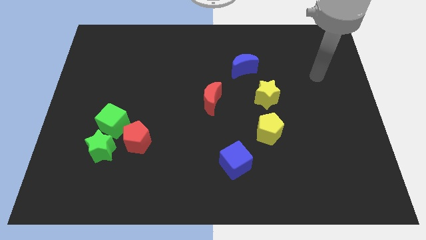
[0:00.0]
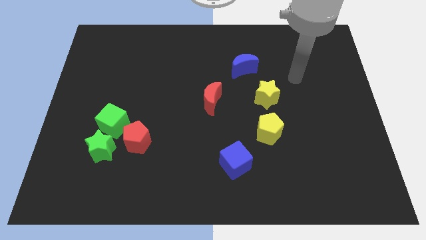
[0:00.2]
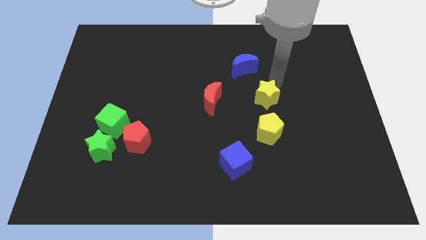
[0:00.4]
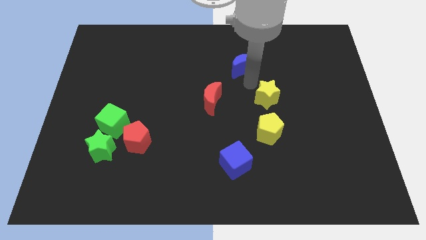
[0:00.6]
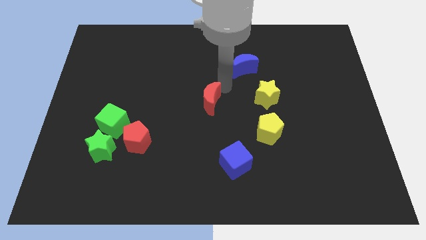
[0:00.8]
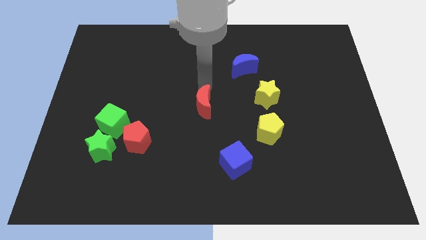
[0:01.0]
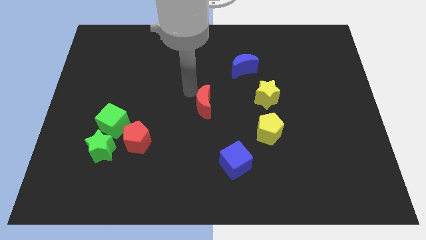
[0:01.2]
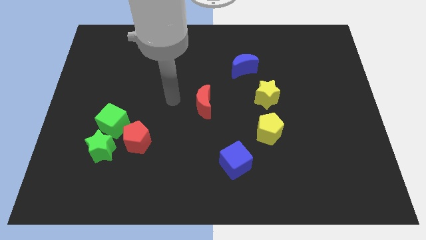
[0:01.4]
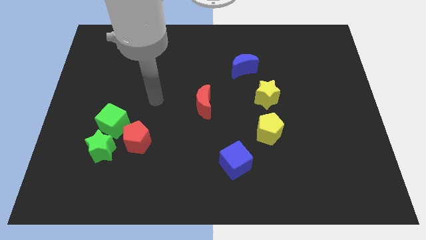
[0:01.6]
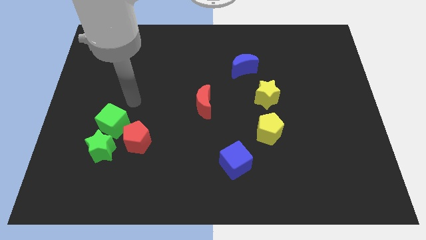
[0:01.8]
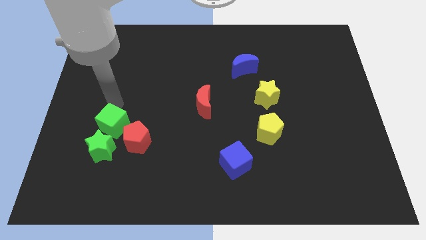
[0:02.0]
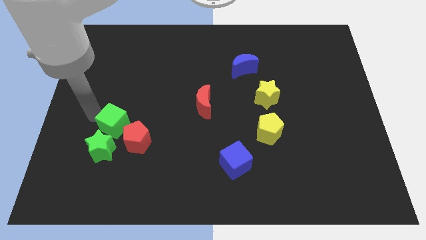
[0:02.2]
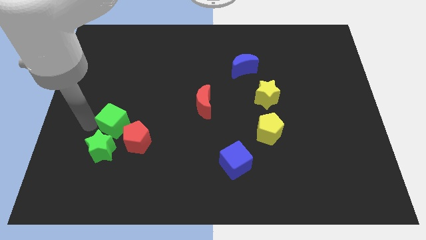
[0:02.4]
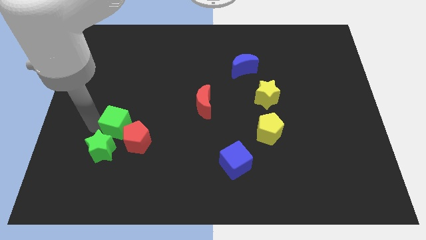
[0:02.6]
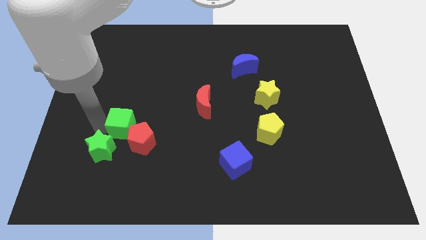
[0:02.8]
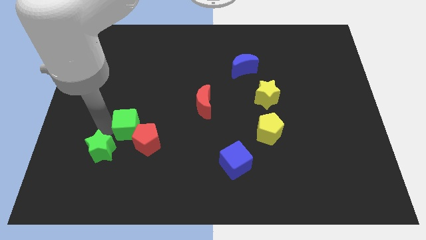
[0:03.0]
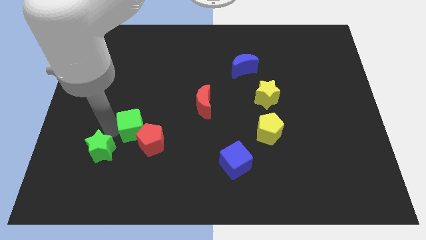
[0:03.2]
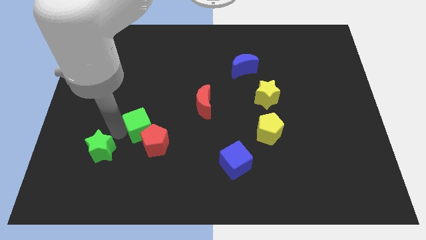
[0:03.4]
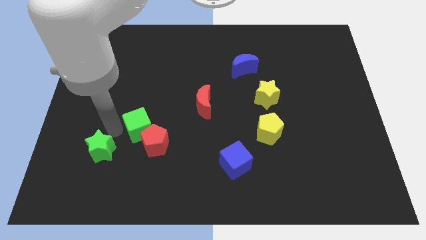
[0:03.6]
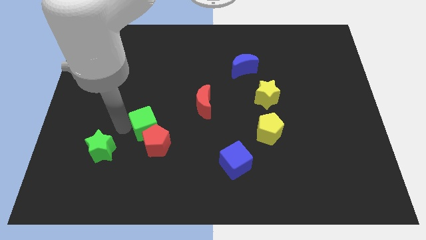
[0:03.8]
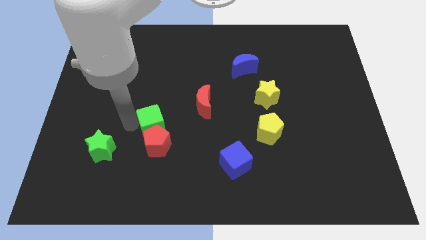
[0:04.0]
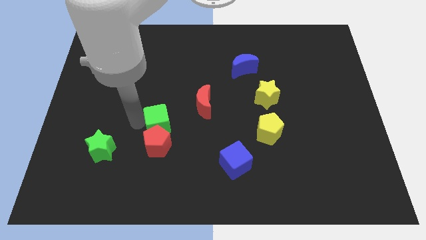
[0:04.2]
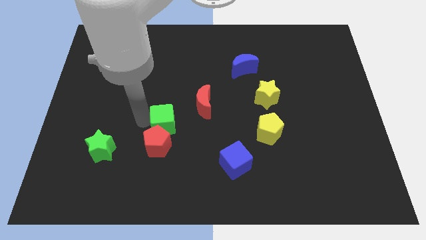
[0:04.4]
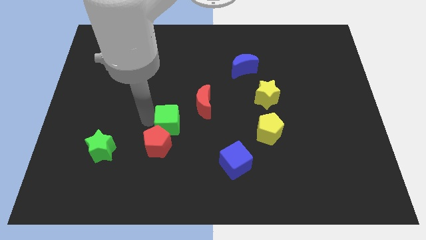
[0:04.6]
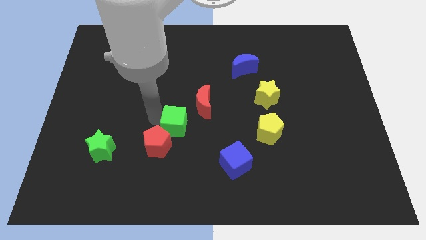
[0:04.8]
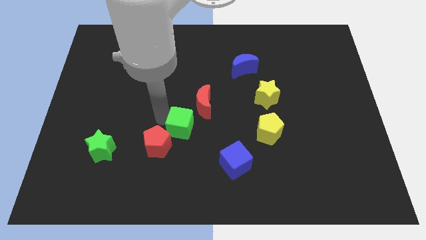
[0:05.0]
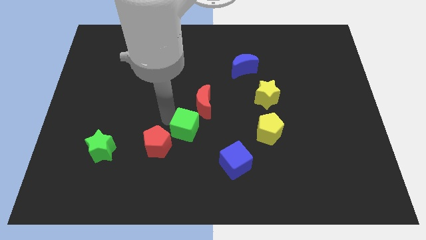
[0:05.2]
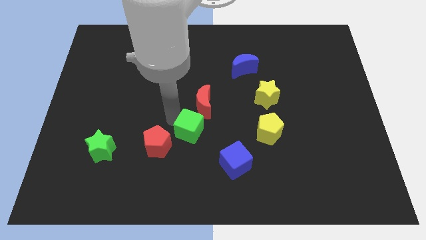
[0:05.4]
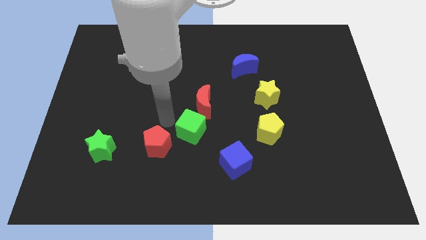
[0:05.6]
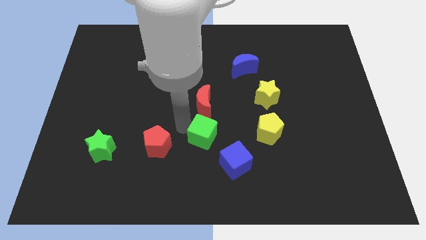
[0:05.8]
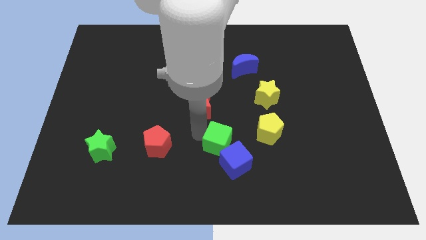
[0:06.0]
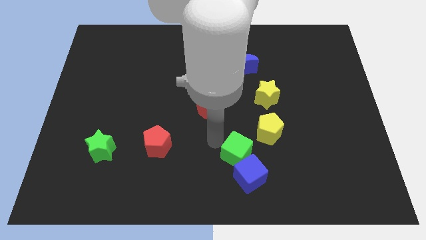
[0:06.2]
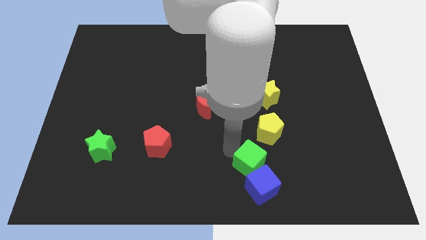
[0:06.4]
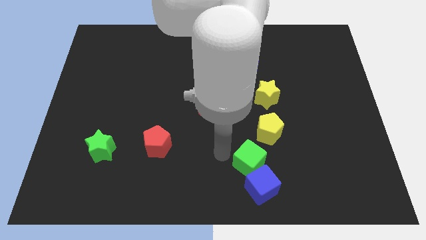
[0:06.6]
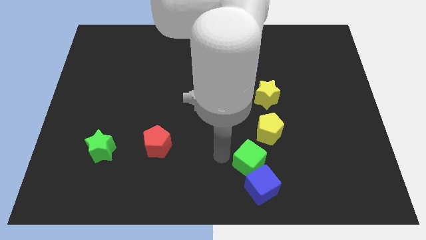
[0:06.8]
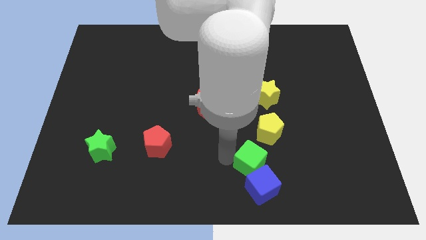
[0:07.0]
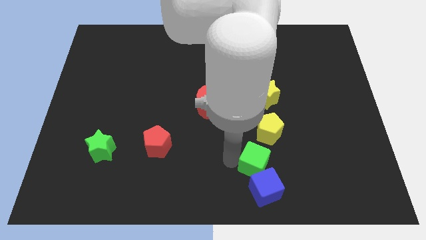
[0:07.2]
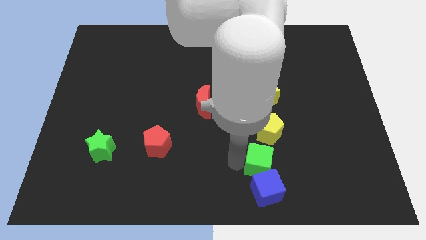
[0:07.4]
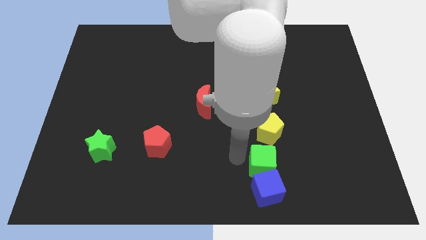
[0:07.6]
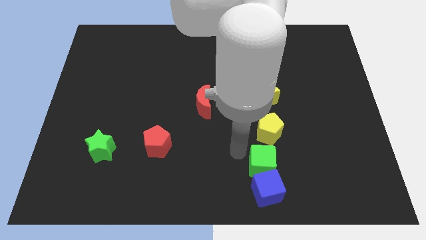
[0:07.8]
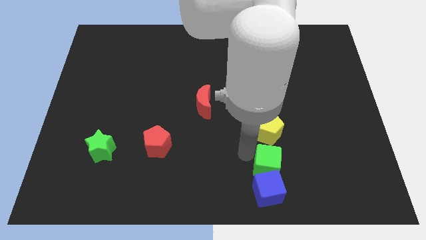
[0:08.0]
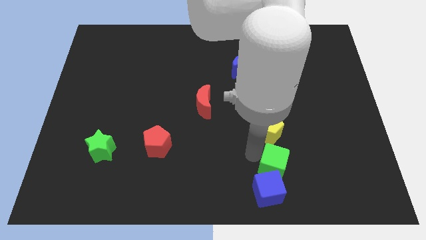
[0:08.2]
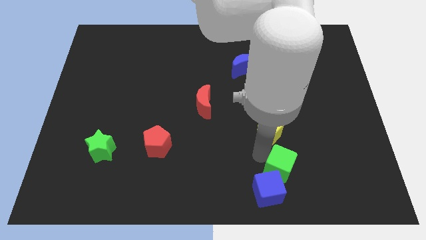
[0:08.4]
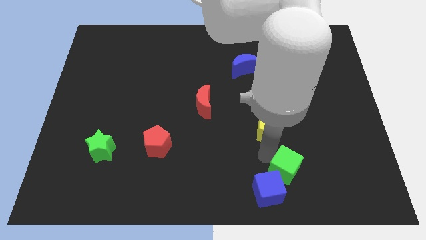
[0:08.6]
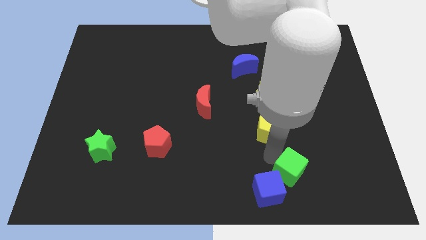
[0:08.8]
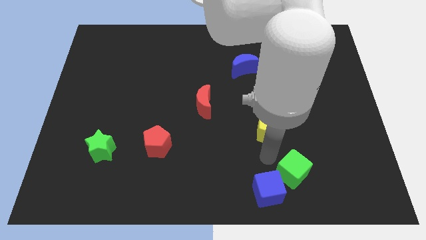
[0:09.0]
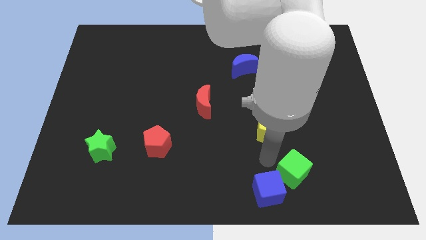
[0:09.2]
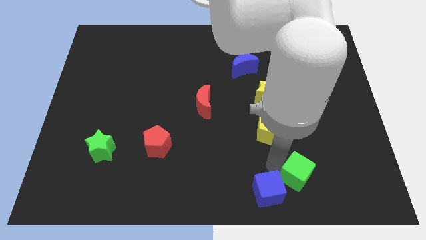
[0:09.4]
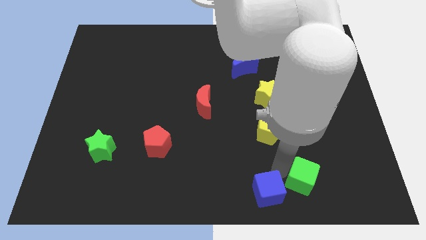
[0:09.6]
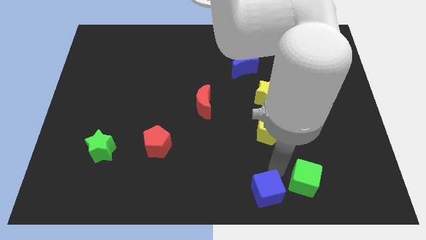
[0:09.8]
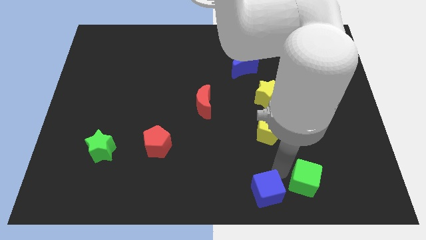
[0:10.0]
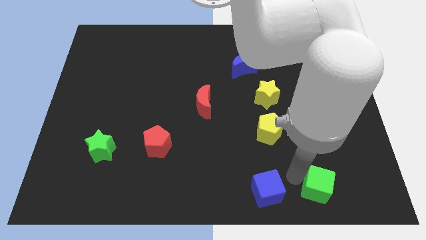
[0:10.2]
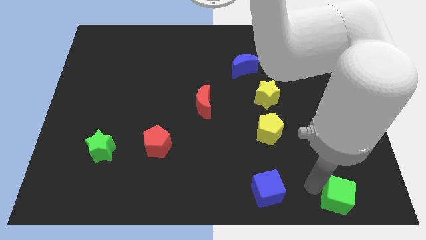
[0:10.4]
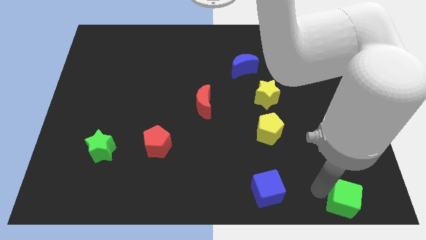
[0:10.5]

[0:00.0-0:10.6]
slide the green cube to the bottom right

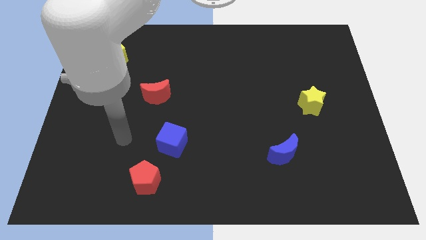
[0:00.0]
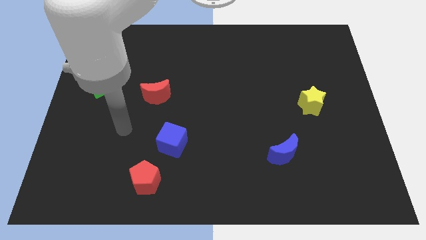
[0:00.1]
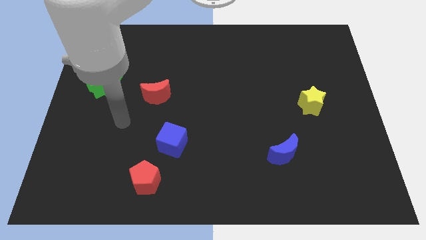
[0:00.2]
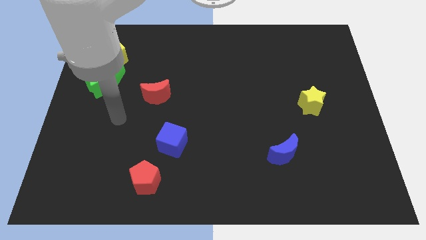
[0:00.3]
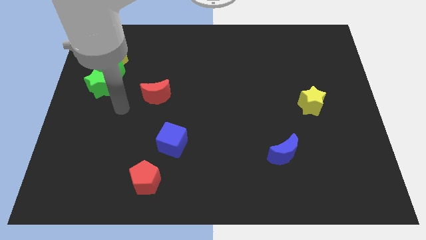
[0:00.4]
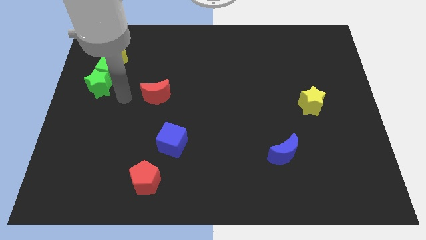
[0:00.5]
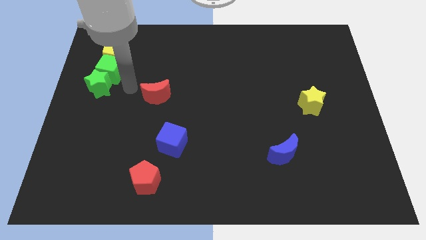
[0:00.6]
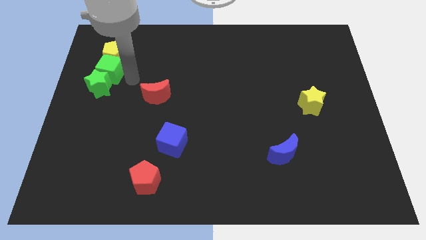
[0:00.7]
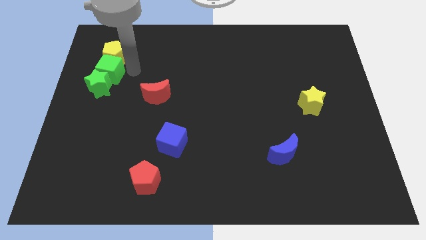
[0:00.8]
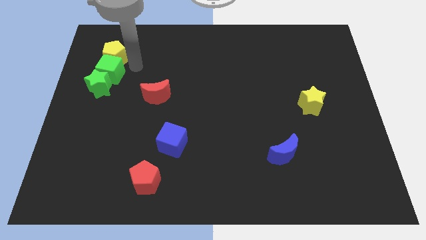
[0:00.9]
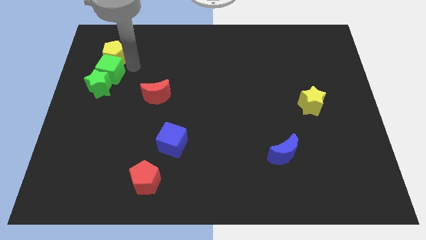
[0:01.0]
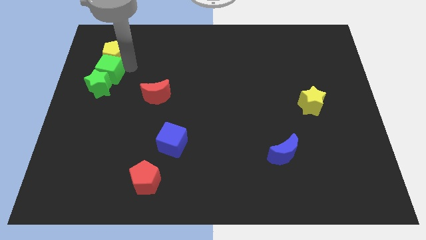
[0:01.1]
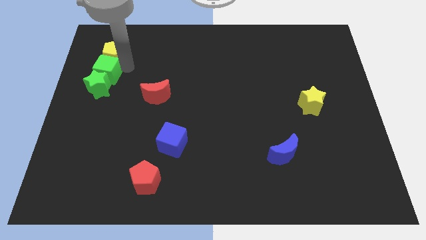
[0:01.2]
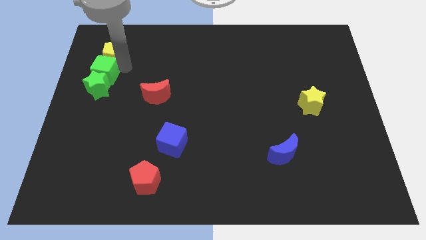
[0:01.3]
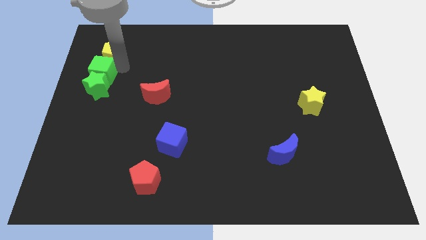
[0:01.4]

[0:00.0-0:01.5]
slide the green cube to the left side
